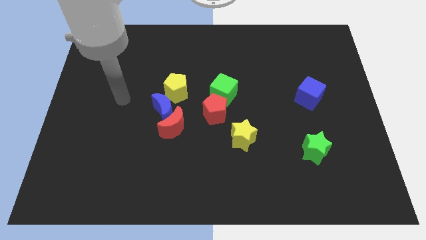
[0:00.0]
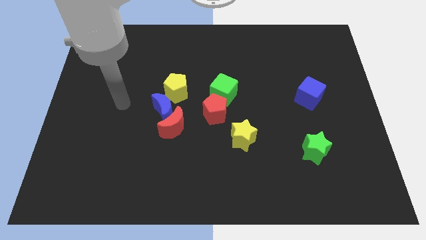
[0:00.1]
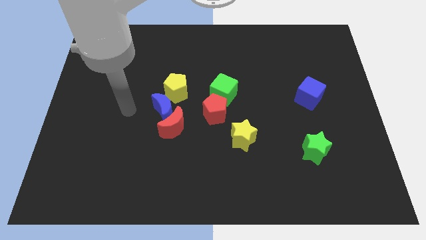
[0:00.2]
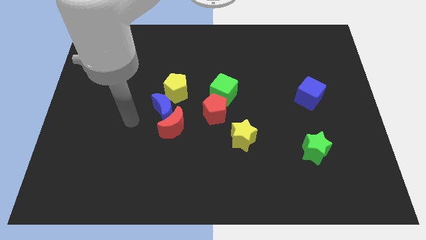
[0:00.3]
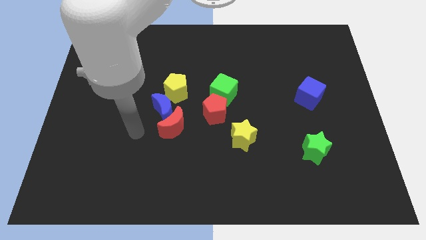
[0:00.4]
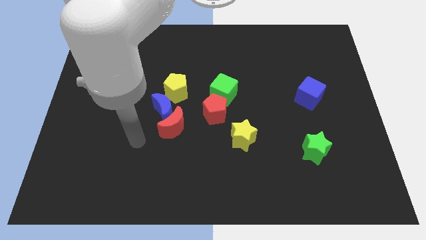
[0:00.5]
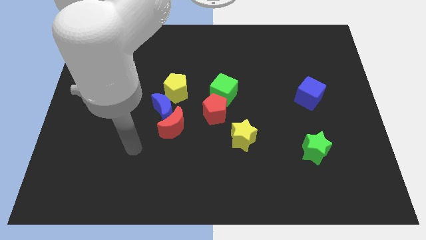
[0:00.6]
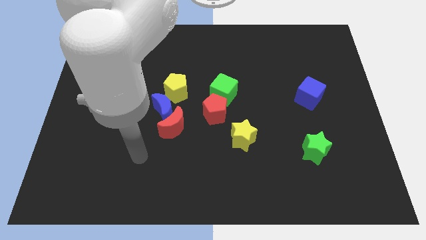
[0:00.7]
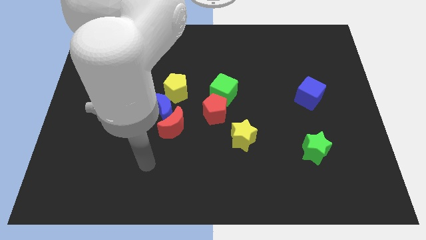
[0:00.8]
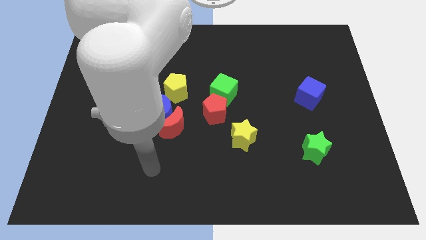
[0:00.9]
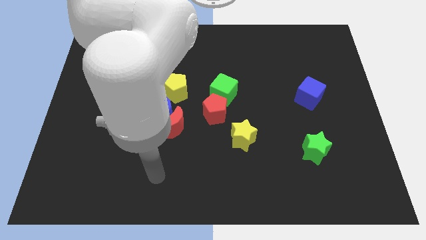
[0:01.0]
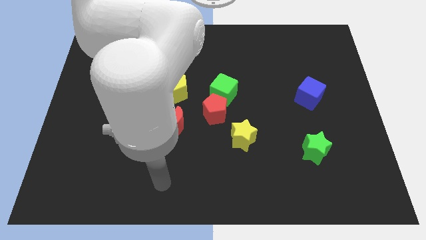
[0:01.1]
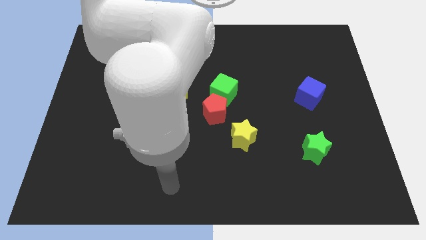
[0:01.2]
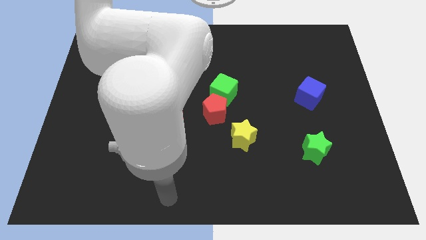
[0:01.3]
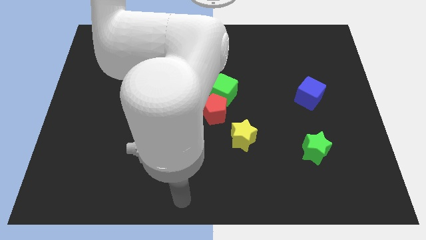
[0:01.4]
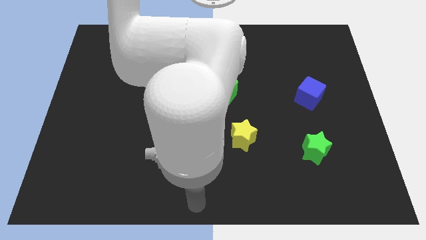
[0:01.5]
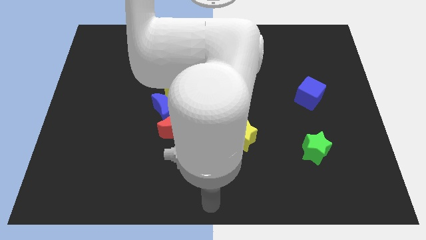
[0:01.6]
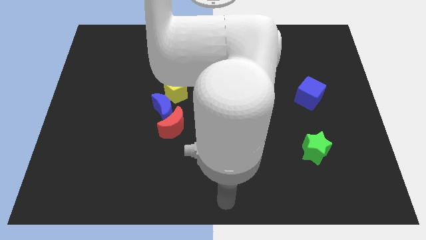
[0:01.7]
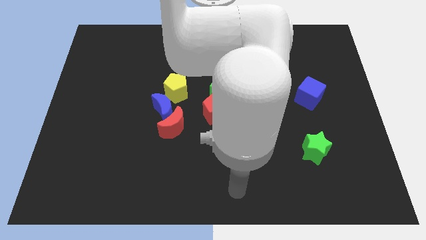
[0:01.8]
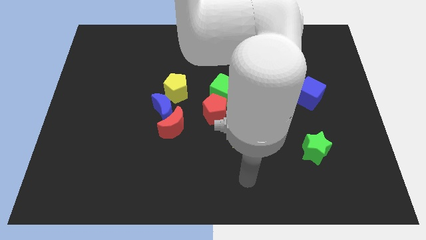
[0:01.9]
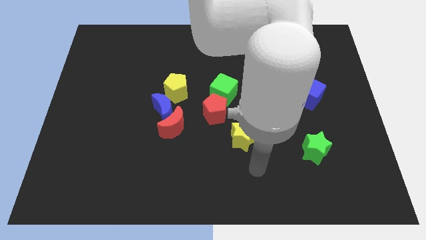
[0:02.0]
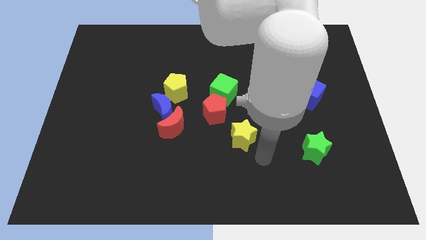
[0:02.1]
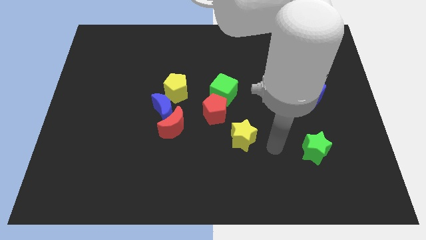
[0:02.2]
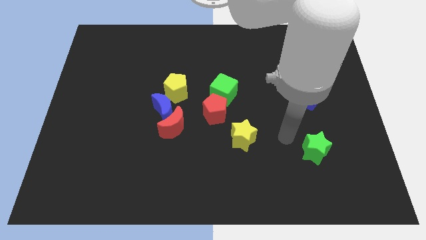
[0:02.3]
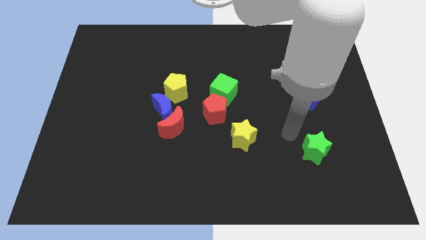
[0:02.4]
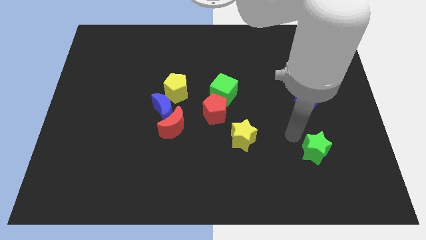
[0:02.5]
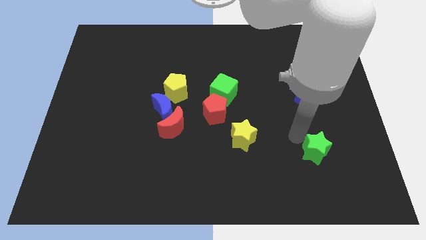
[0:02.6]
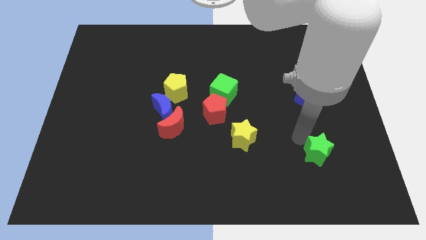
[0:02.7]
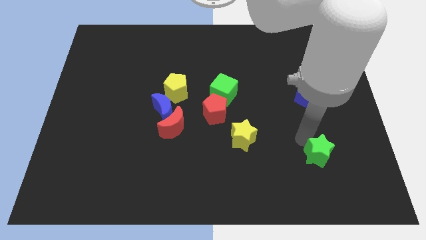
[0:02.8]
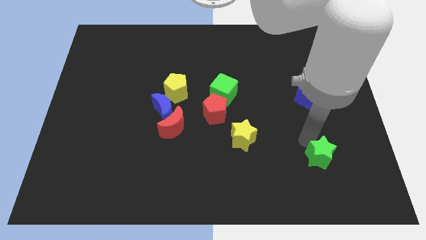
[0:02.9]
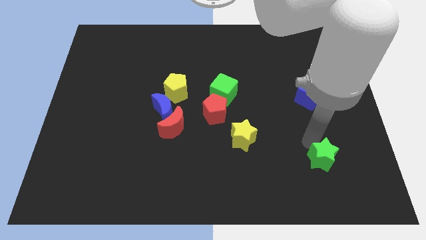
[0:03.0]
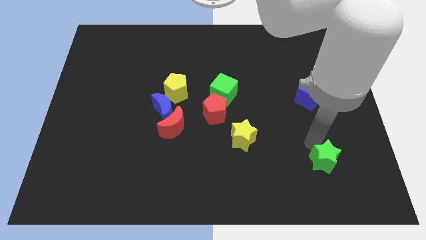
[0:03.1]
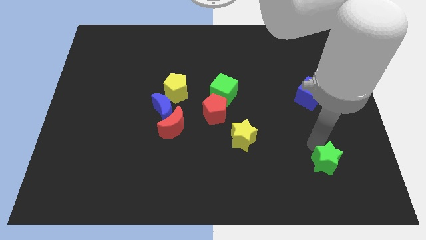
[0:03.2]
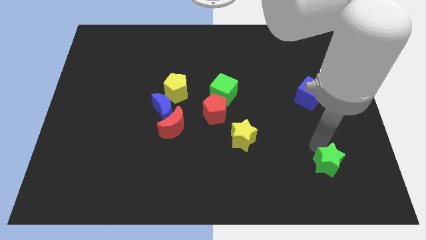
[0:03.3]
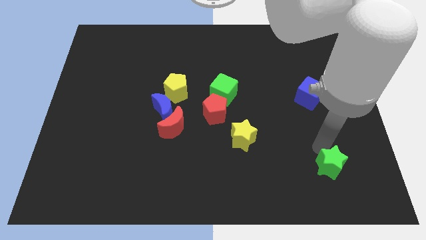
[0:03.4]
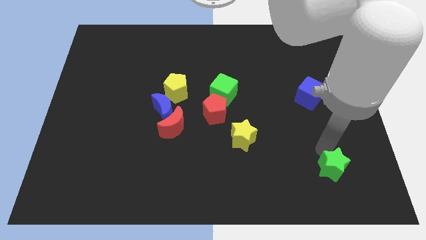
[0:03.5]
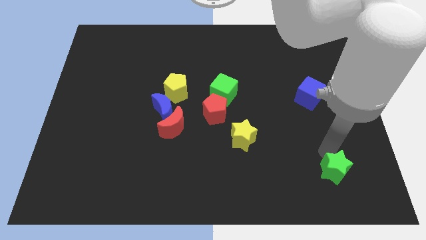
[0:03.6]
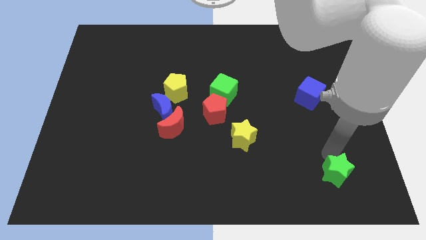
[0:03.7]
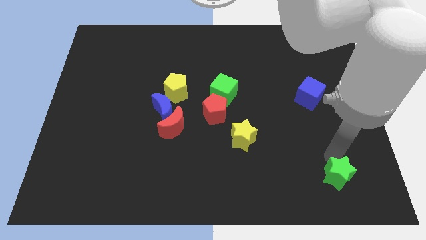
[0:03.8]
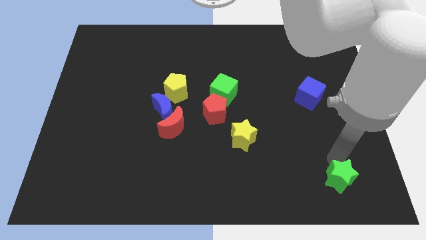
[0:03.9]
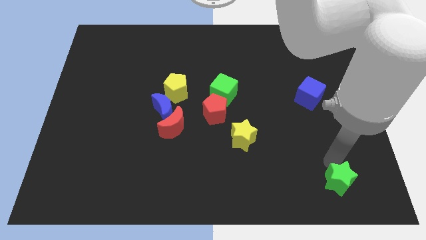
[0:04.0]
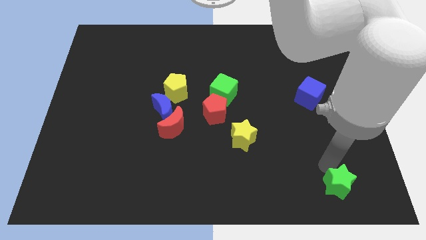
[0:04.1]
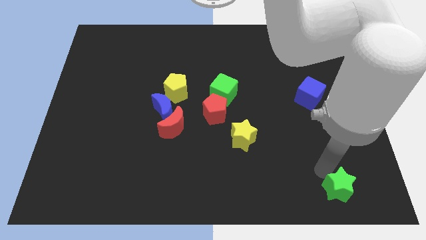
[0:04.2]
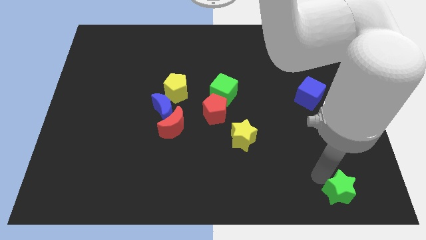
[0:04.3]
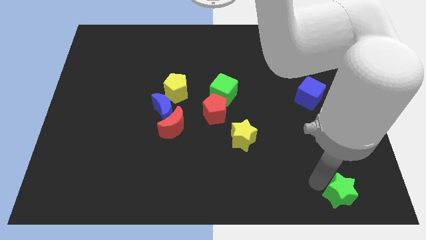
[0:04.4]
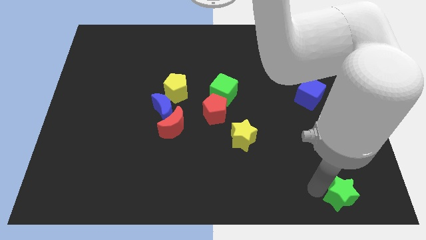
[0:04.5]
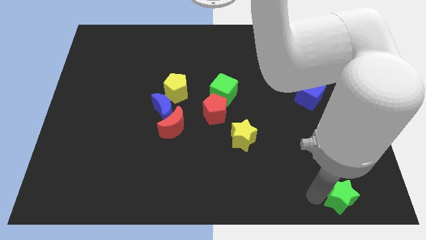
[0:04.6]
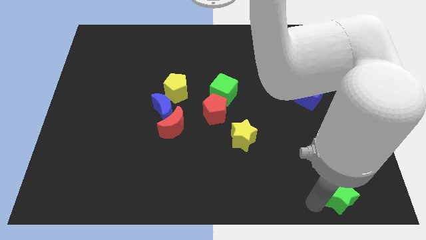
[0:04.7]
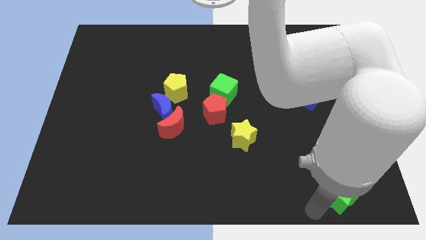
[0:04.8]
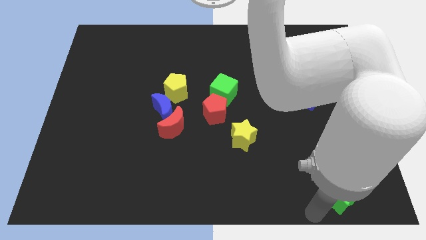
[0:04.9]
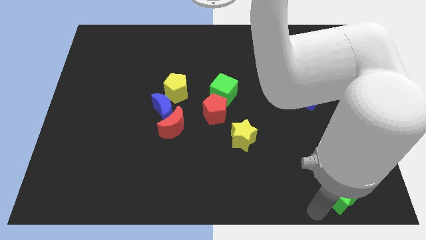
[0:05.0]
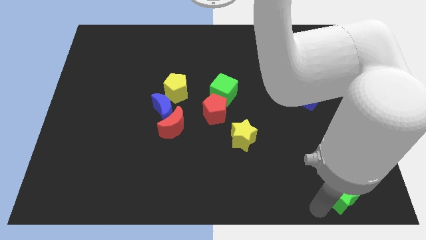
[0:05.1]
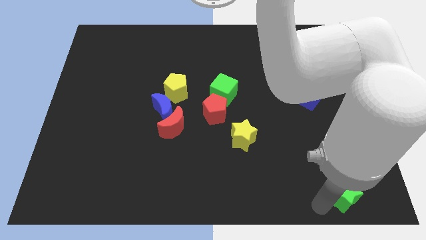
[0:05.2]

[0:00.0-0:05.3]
slide the green star to the bottom right of the board

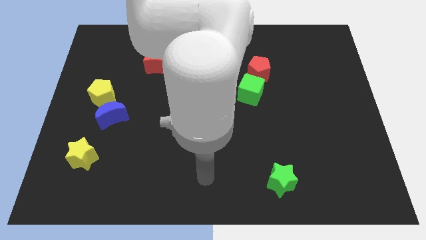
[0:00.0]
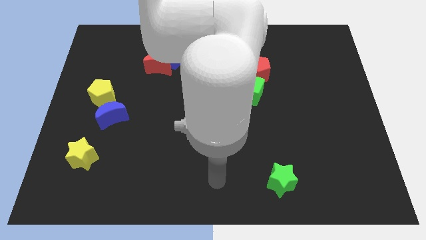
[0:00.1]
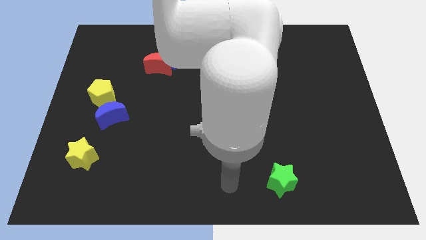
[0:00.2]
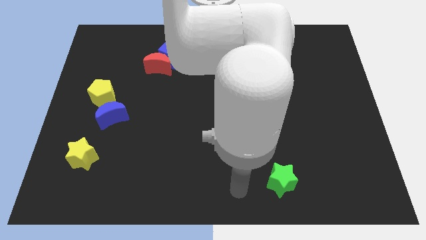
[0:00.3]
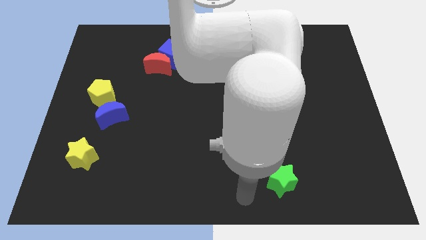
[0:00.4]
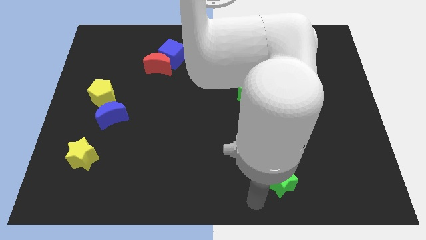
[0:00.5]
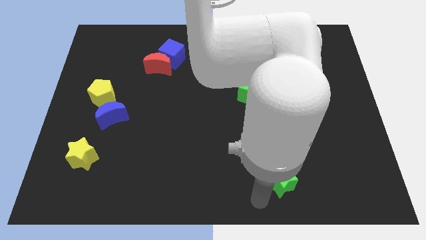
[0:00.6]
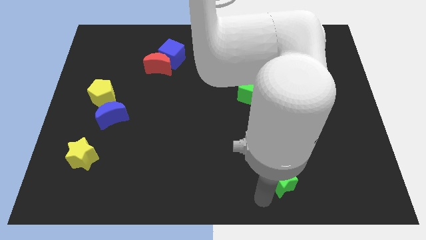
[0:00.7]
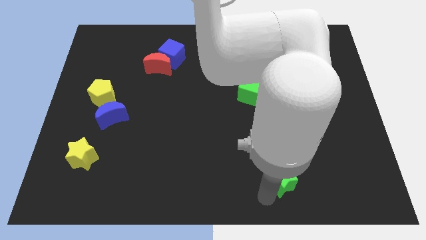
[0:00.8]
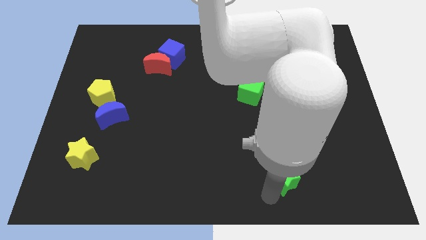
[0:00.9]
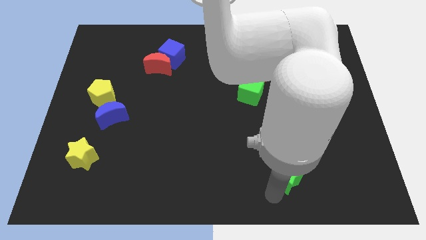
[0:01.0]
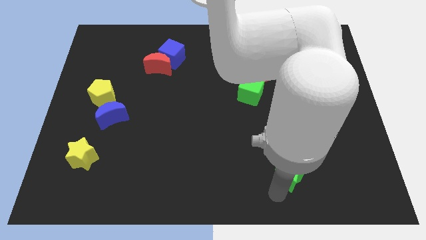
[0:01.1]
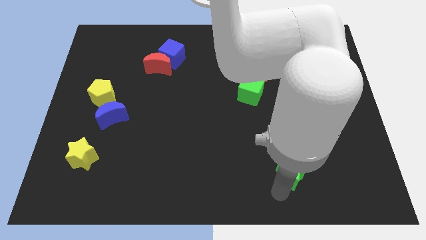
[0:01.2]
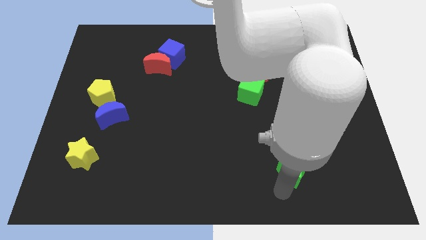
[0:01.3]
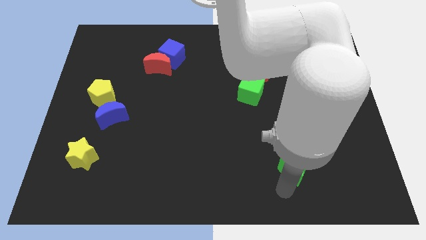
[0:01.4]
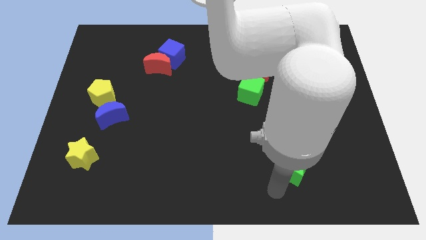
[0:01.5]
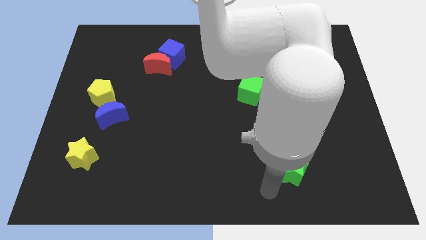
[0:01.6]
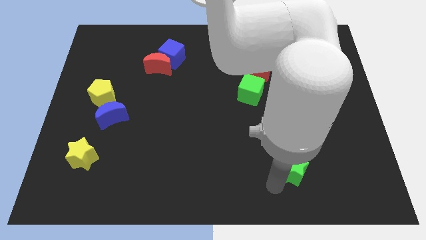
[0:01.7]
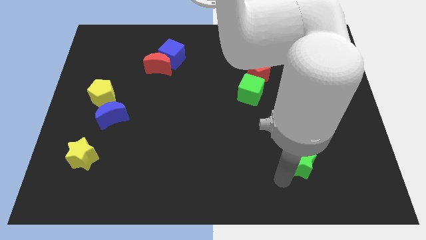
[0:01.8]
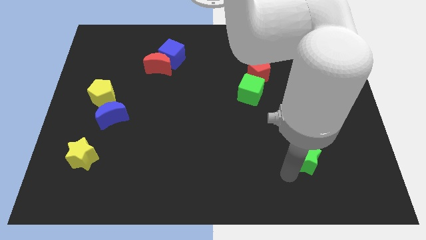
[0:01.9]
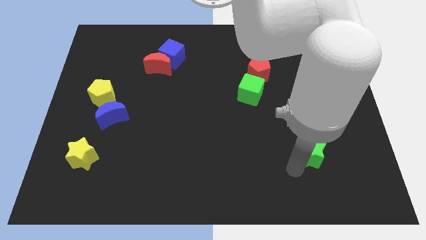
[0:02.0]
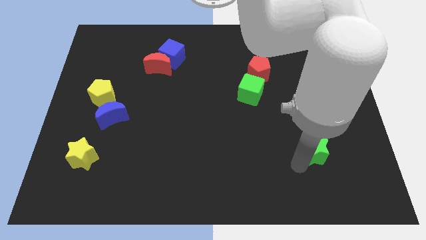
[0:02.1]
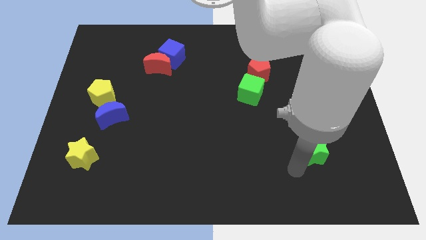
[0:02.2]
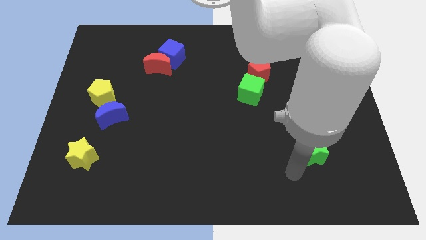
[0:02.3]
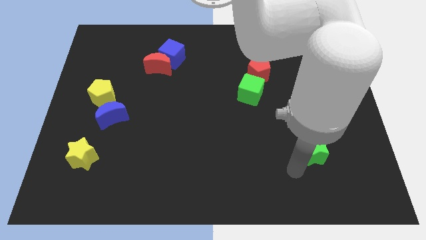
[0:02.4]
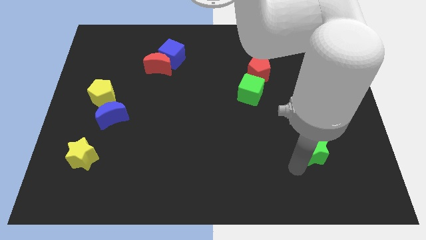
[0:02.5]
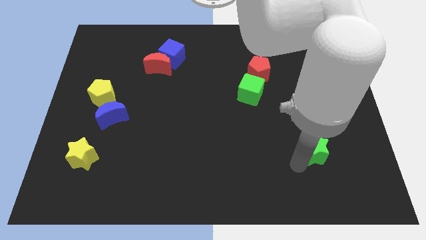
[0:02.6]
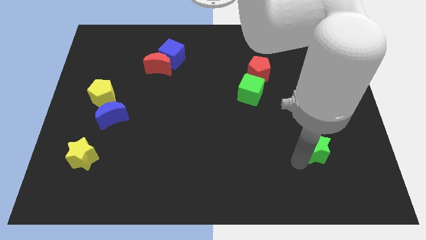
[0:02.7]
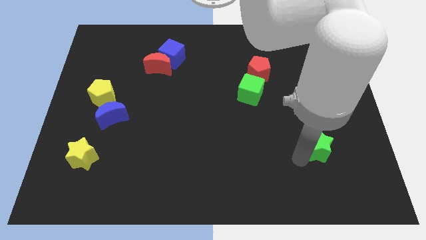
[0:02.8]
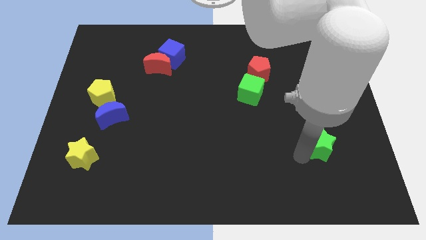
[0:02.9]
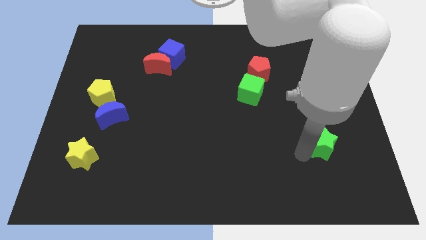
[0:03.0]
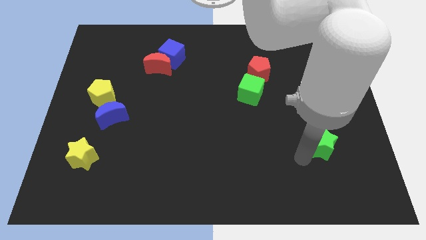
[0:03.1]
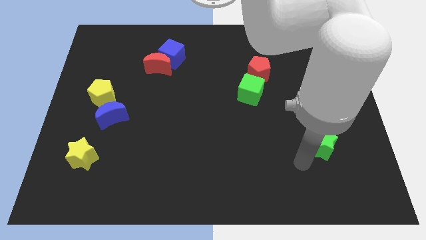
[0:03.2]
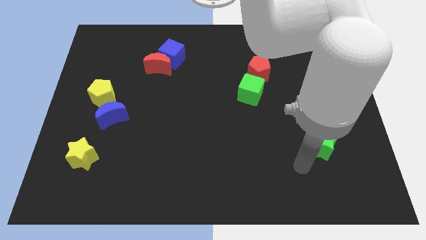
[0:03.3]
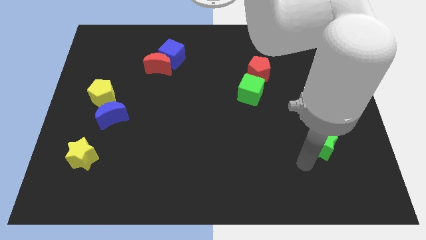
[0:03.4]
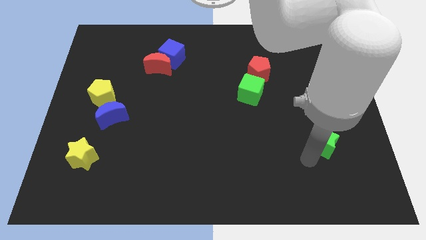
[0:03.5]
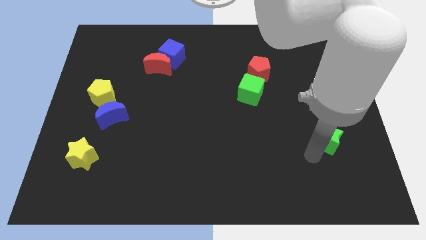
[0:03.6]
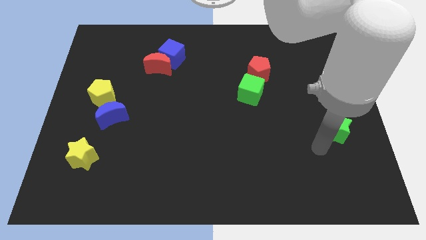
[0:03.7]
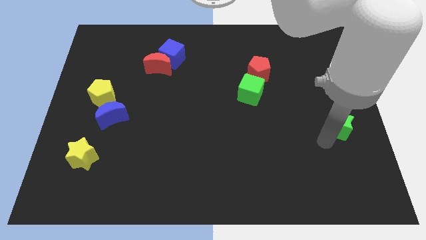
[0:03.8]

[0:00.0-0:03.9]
slide the green star to the right side of the board
